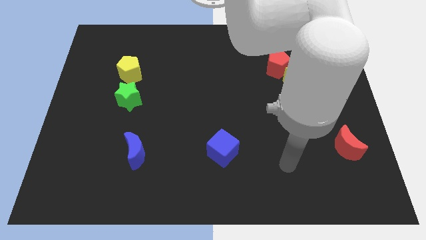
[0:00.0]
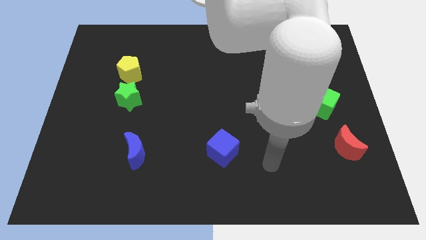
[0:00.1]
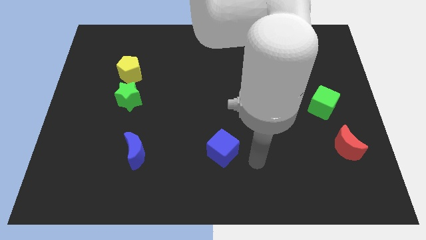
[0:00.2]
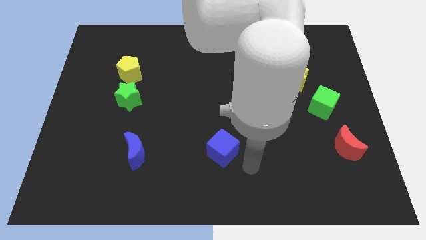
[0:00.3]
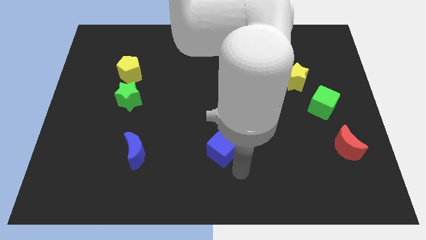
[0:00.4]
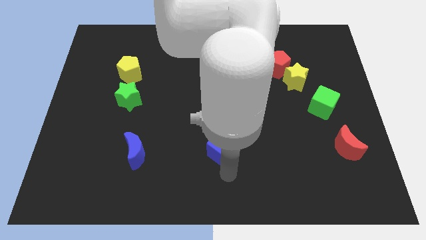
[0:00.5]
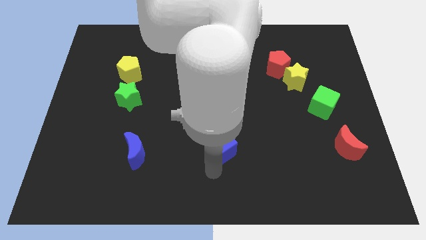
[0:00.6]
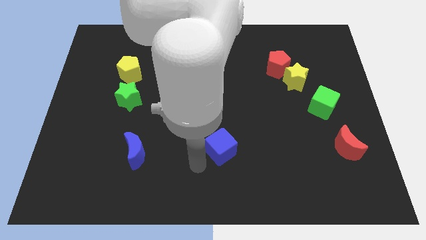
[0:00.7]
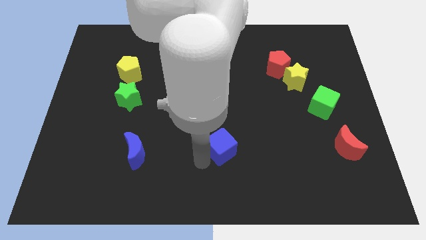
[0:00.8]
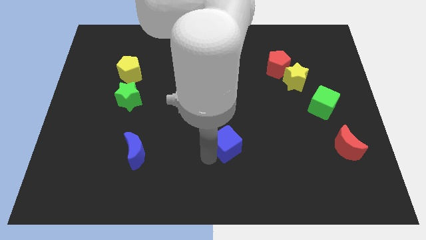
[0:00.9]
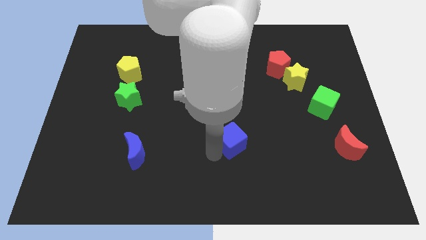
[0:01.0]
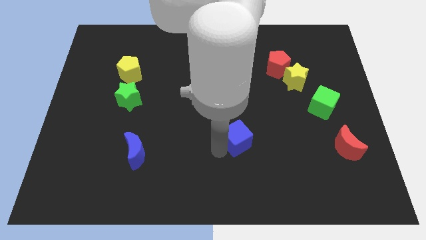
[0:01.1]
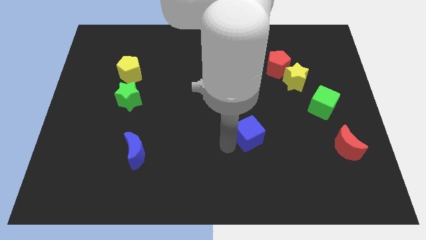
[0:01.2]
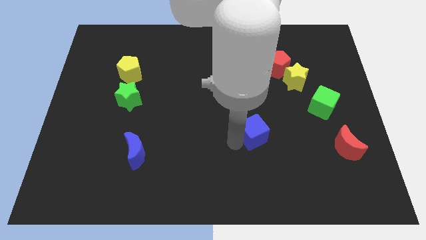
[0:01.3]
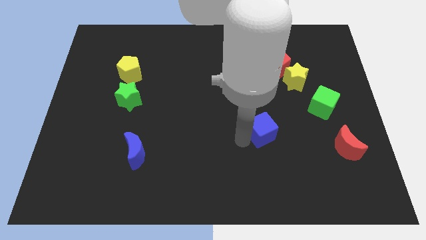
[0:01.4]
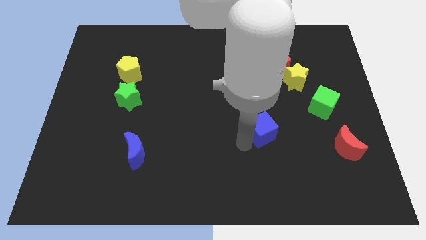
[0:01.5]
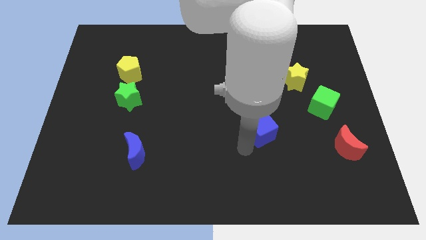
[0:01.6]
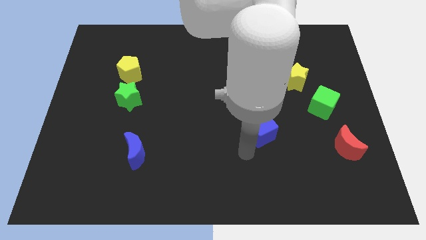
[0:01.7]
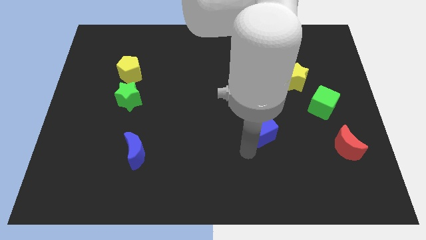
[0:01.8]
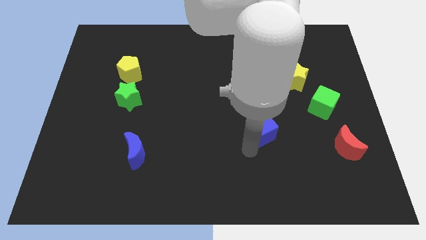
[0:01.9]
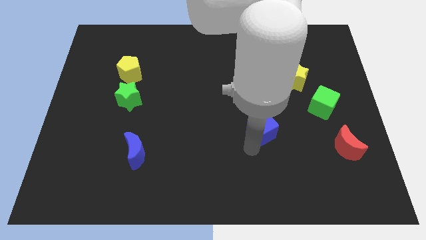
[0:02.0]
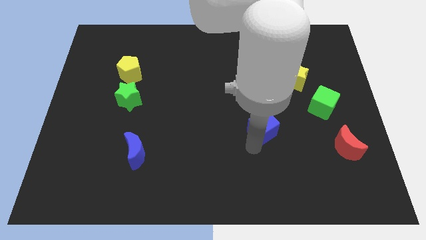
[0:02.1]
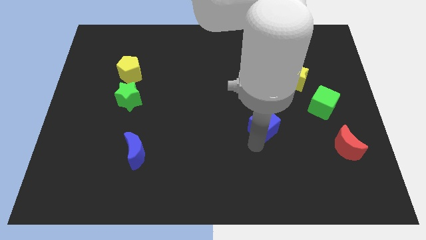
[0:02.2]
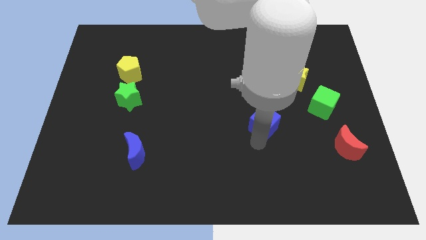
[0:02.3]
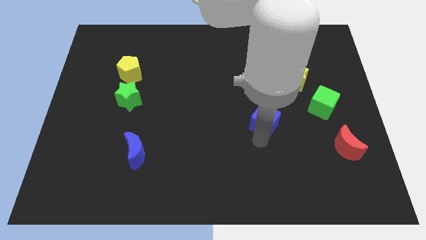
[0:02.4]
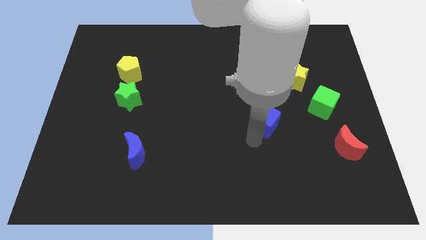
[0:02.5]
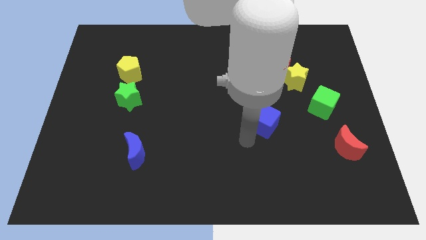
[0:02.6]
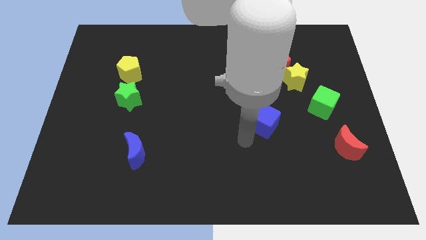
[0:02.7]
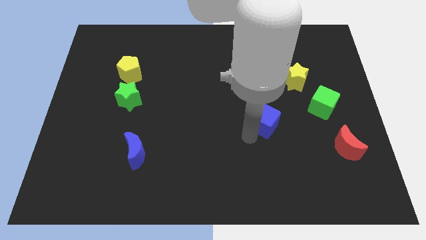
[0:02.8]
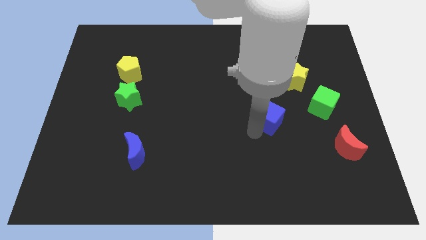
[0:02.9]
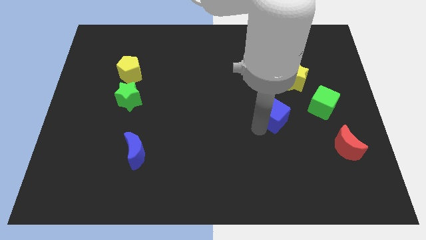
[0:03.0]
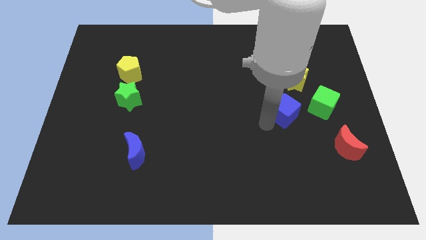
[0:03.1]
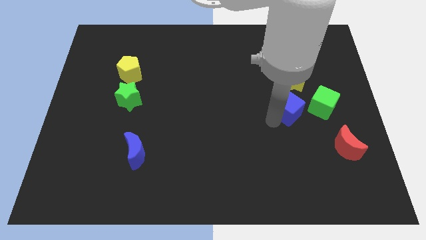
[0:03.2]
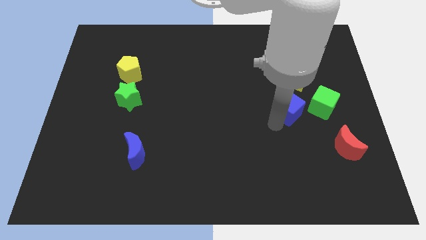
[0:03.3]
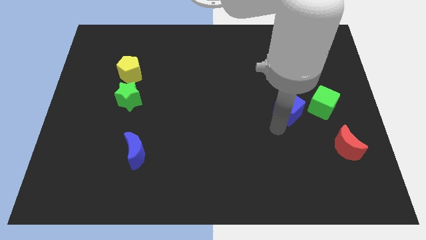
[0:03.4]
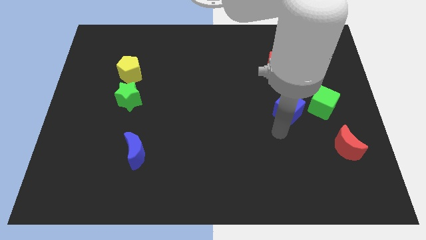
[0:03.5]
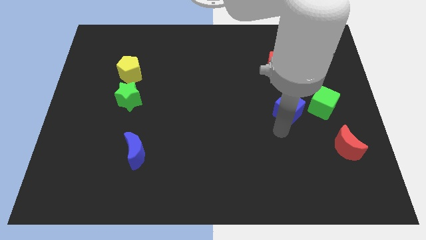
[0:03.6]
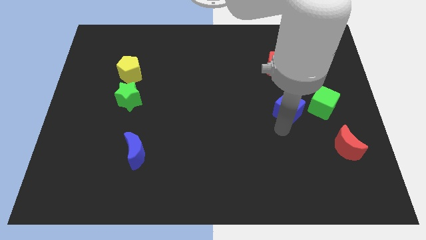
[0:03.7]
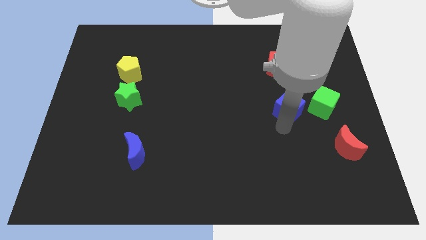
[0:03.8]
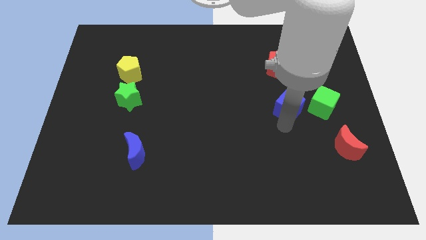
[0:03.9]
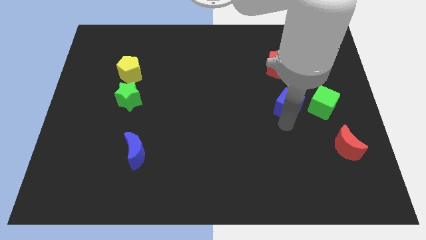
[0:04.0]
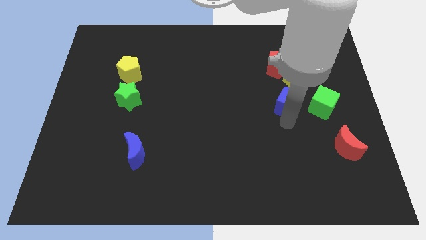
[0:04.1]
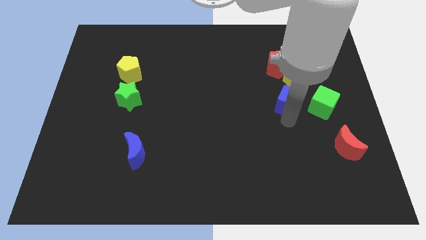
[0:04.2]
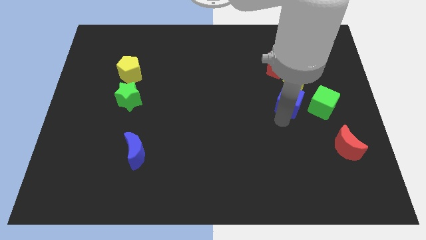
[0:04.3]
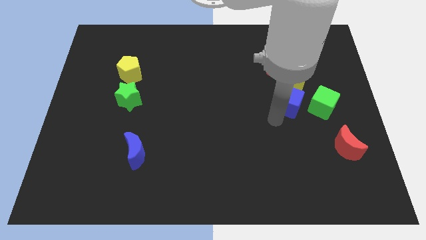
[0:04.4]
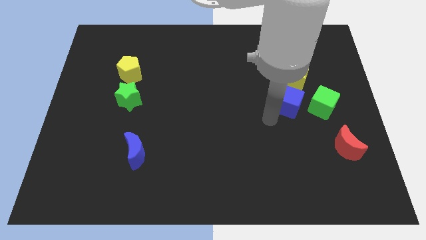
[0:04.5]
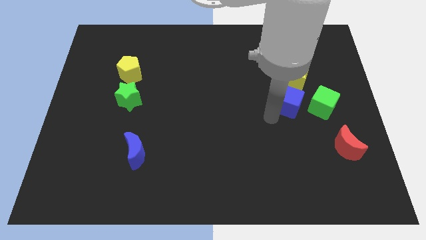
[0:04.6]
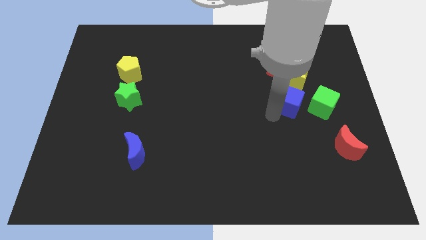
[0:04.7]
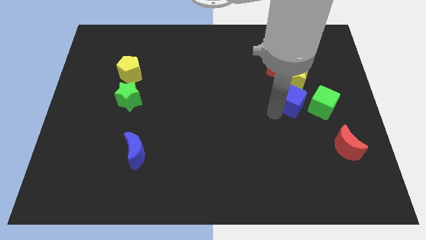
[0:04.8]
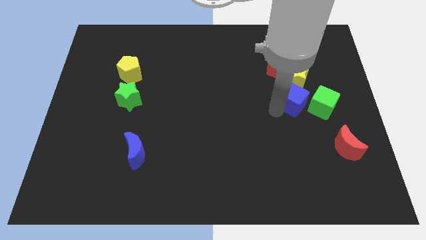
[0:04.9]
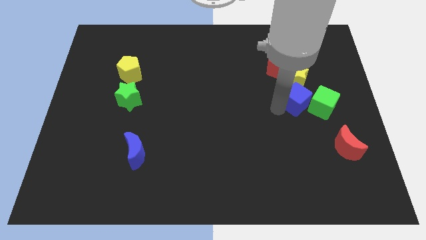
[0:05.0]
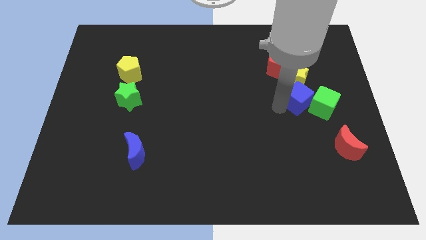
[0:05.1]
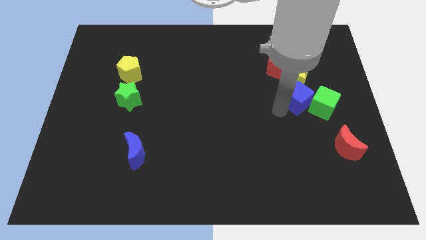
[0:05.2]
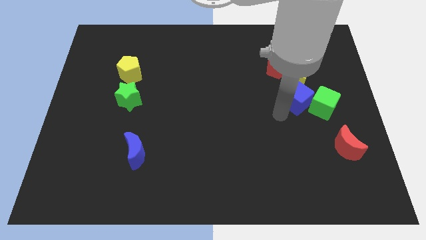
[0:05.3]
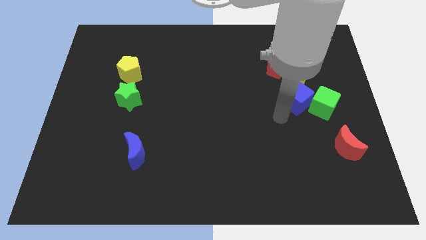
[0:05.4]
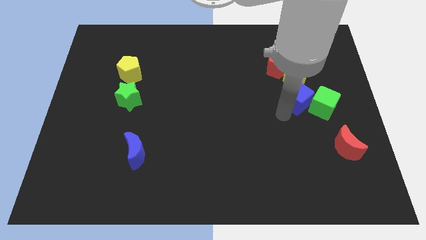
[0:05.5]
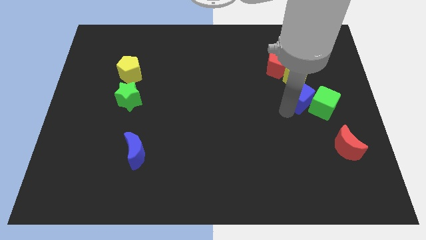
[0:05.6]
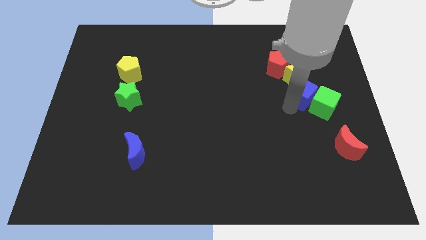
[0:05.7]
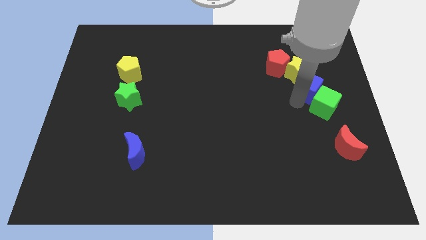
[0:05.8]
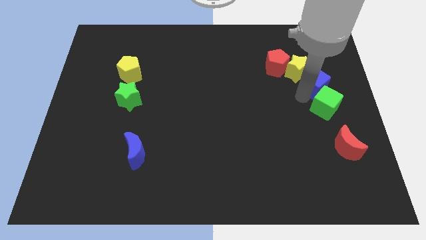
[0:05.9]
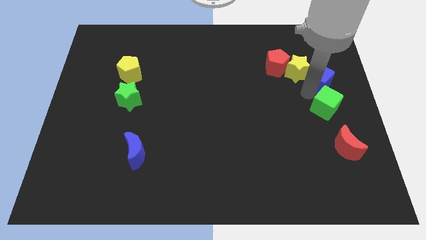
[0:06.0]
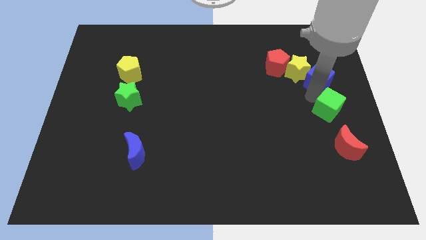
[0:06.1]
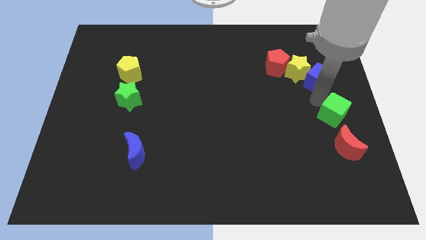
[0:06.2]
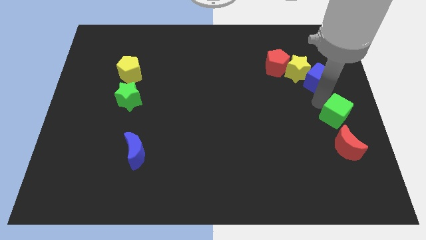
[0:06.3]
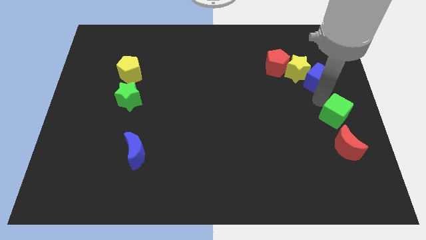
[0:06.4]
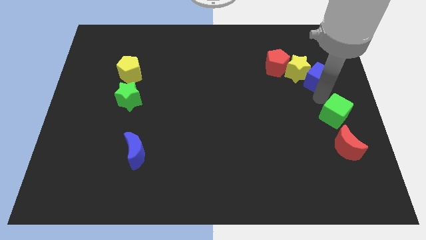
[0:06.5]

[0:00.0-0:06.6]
push the blue cube to the right of the red pentagon
